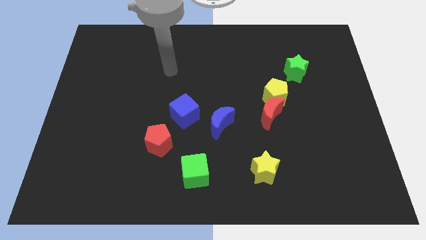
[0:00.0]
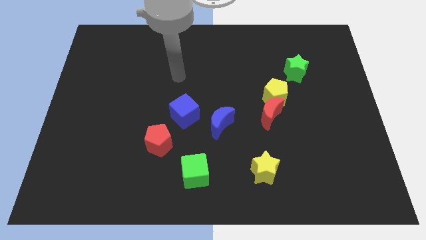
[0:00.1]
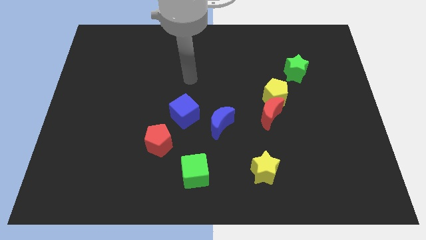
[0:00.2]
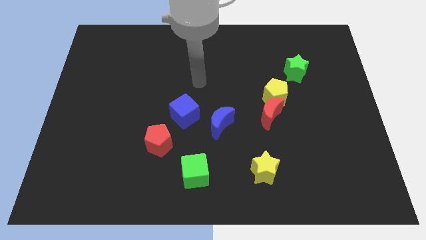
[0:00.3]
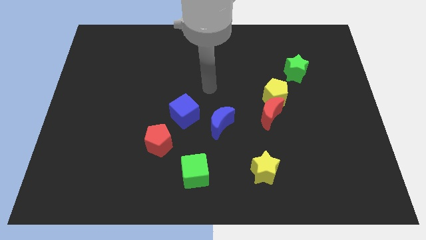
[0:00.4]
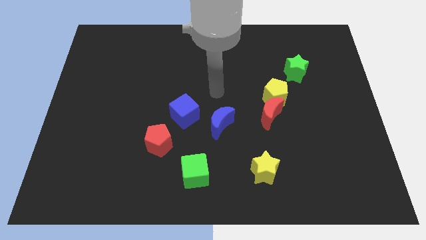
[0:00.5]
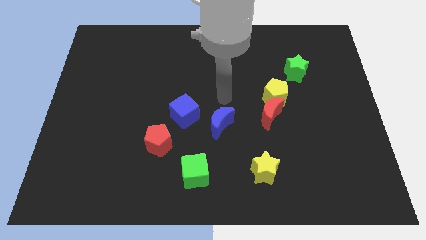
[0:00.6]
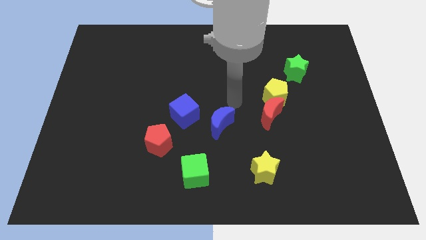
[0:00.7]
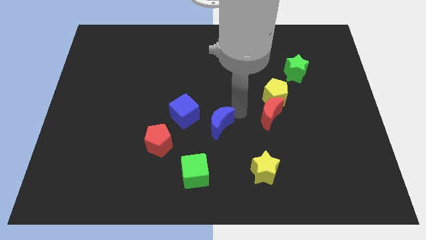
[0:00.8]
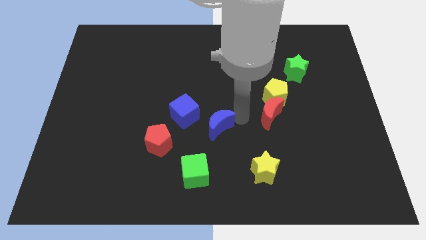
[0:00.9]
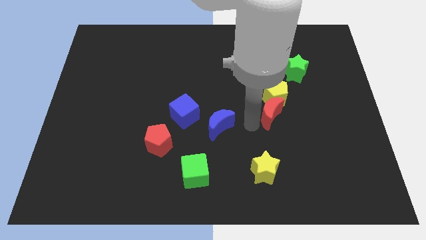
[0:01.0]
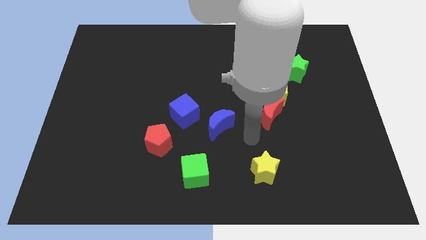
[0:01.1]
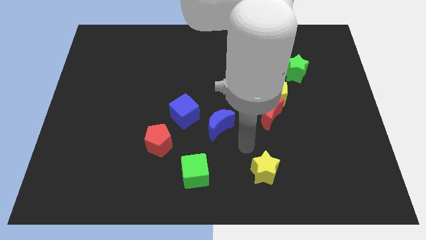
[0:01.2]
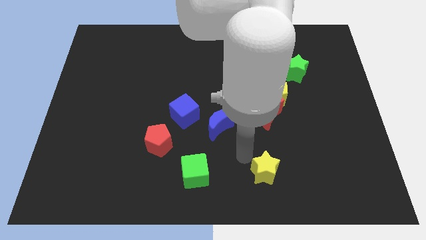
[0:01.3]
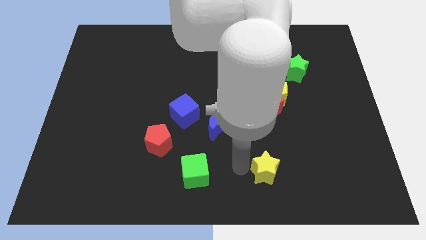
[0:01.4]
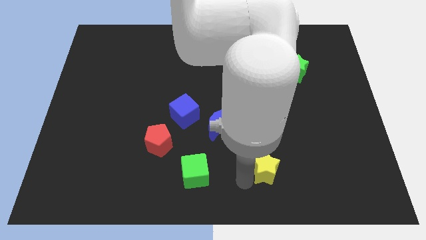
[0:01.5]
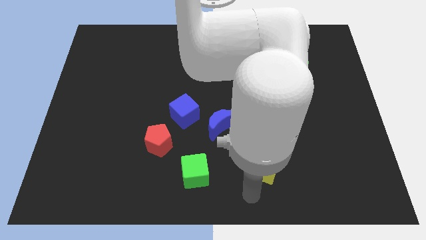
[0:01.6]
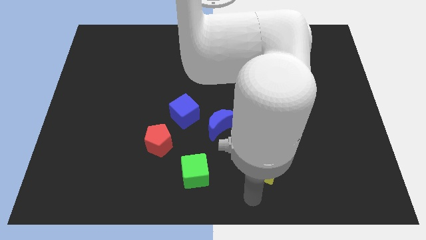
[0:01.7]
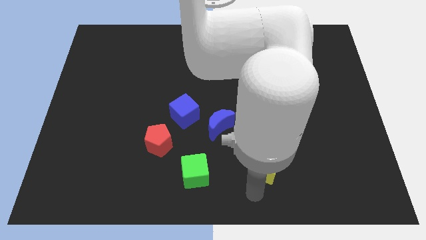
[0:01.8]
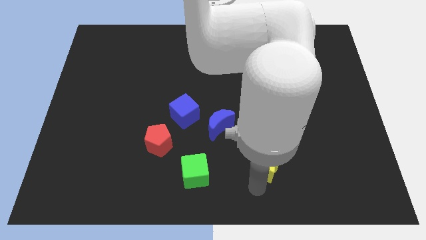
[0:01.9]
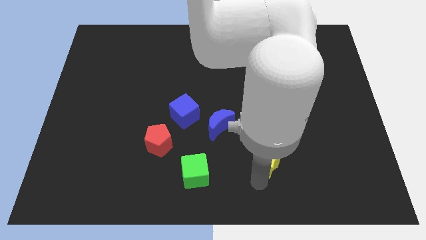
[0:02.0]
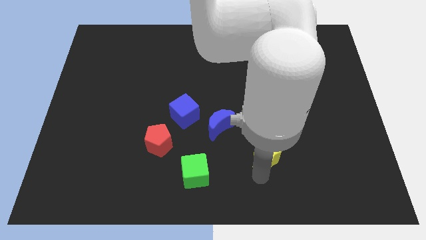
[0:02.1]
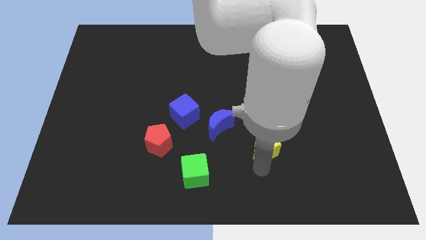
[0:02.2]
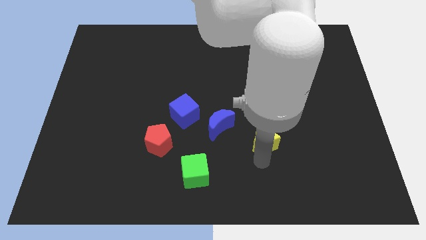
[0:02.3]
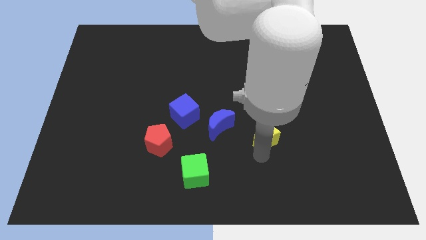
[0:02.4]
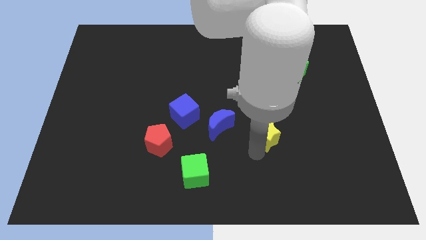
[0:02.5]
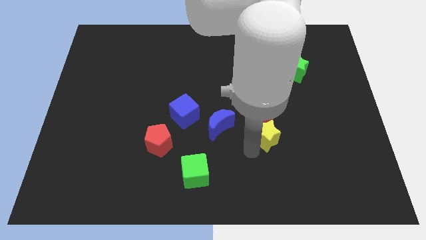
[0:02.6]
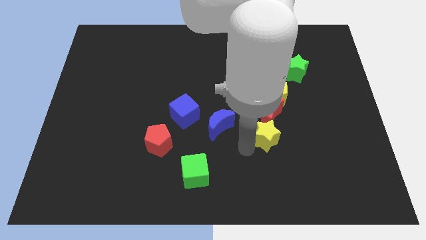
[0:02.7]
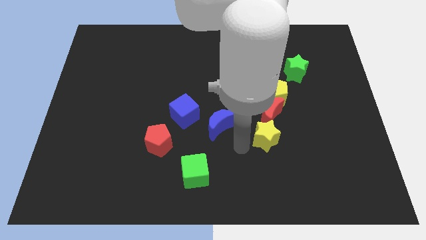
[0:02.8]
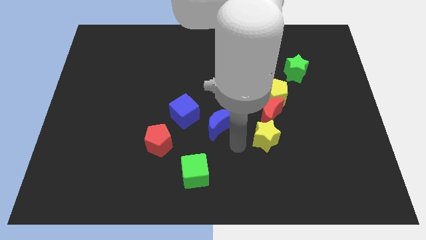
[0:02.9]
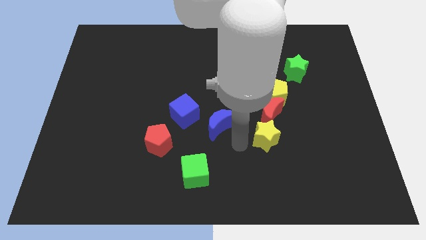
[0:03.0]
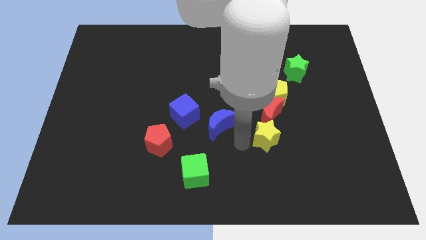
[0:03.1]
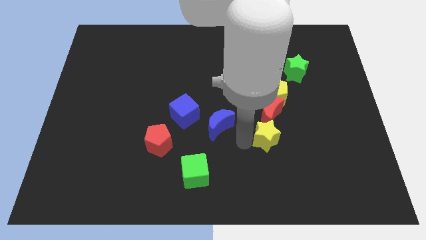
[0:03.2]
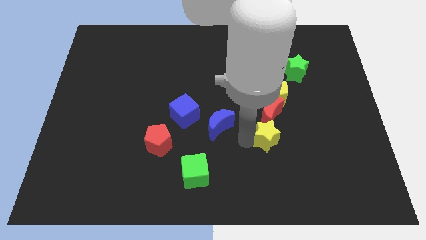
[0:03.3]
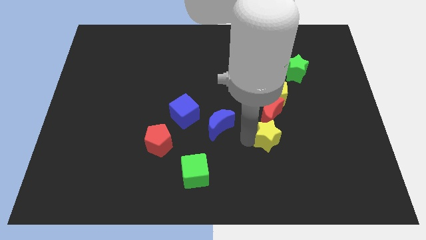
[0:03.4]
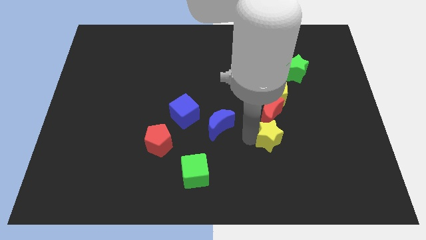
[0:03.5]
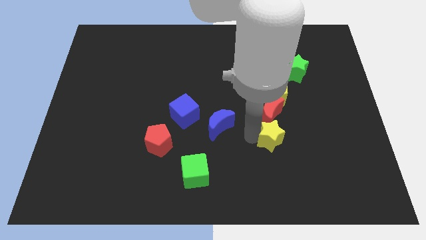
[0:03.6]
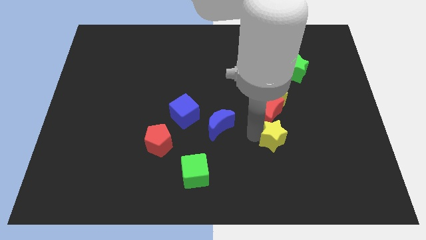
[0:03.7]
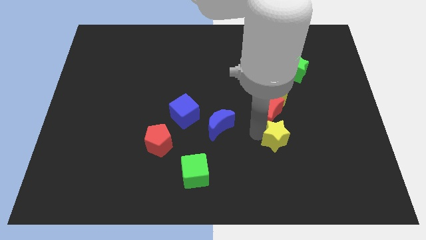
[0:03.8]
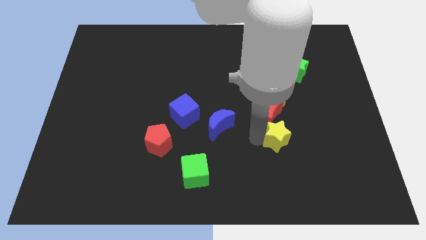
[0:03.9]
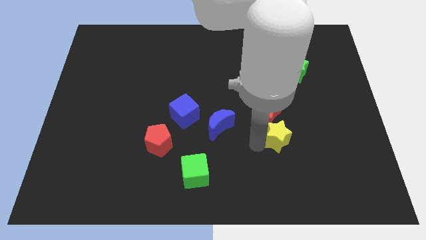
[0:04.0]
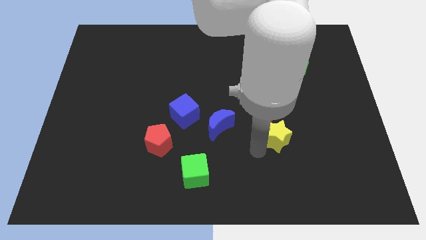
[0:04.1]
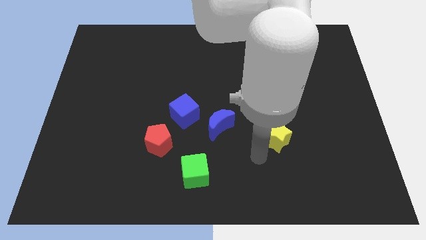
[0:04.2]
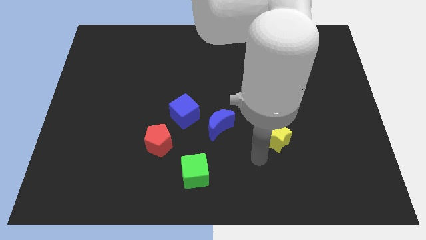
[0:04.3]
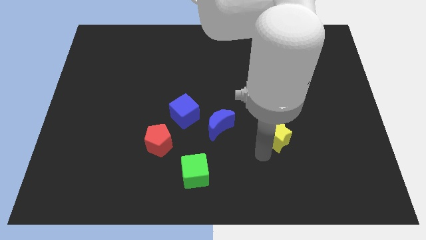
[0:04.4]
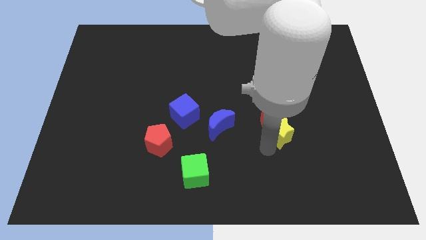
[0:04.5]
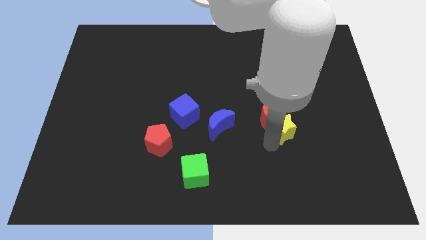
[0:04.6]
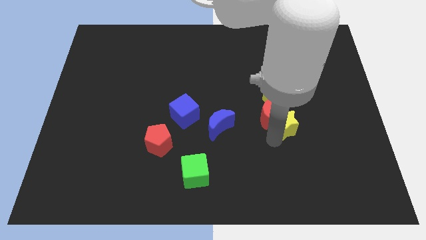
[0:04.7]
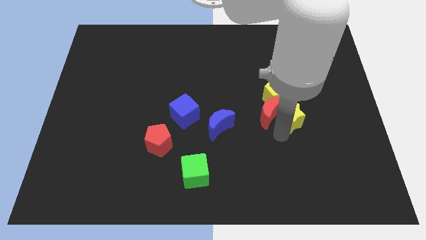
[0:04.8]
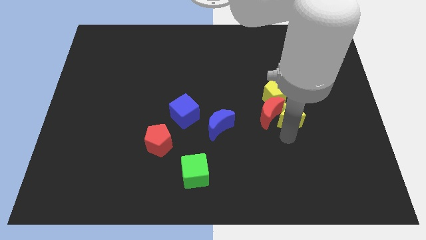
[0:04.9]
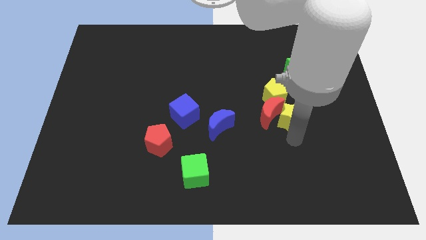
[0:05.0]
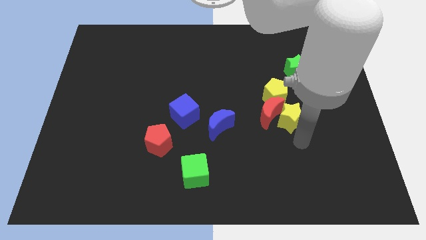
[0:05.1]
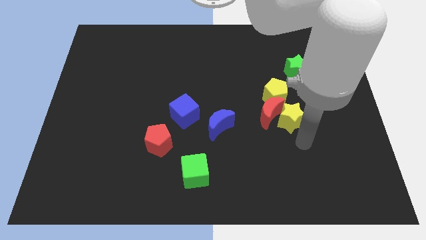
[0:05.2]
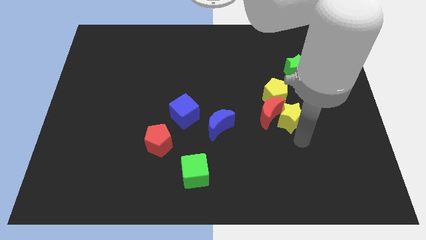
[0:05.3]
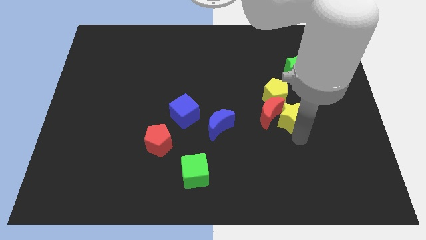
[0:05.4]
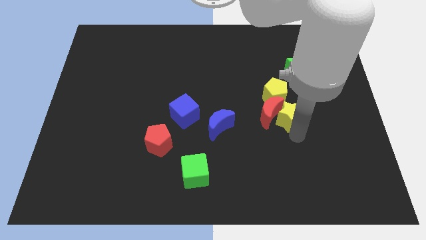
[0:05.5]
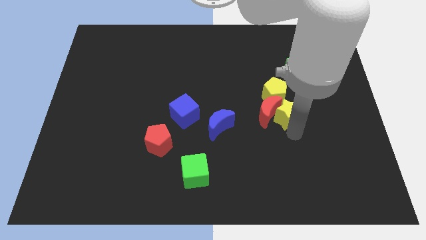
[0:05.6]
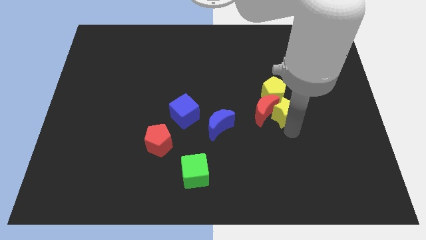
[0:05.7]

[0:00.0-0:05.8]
slide the yellow star close to the yellow pentagon

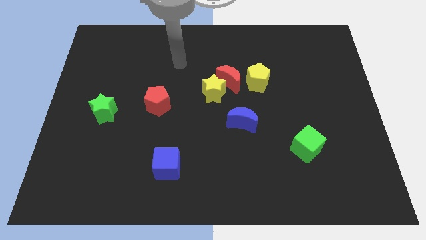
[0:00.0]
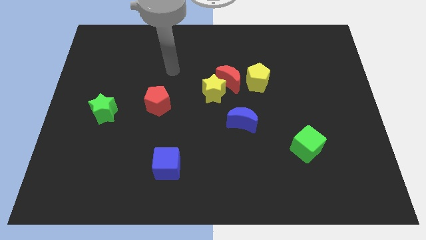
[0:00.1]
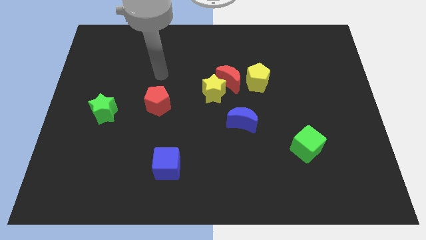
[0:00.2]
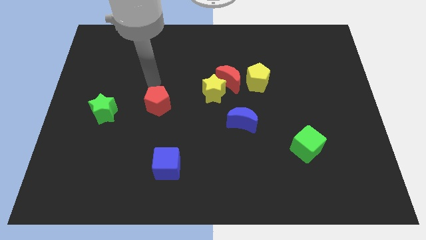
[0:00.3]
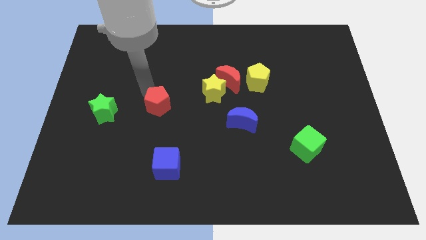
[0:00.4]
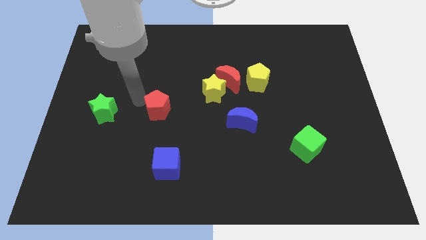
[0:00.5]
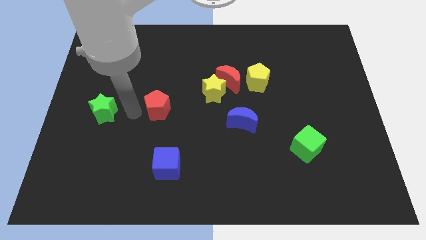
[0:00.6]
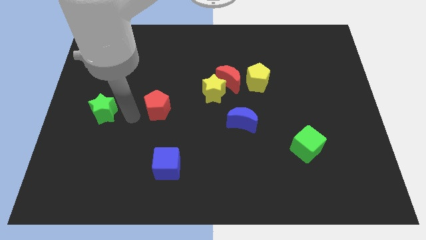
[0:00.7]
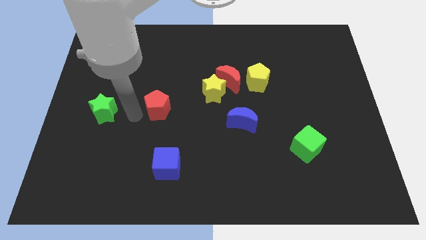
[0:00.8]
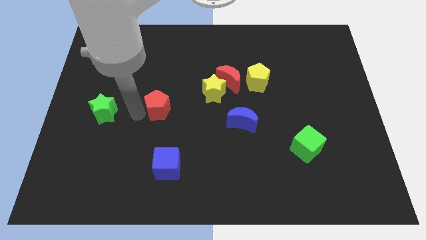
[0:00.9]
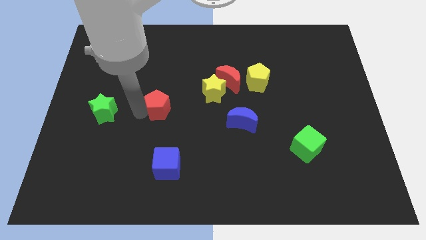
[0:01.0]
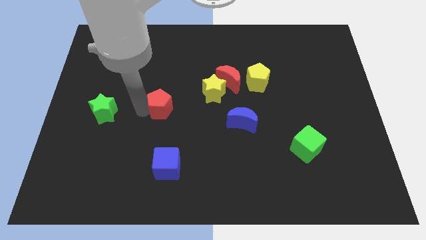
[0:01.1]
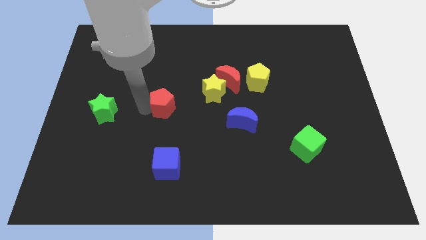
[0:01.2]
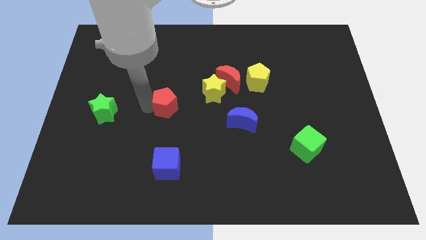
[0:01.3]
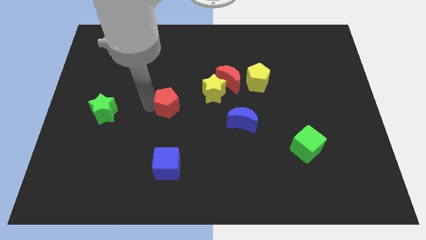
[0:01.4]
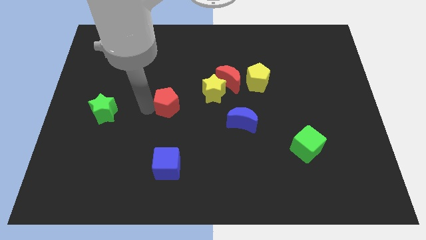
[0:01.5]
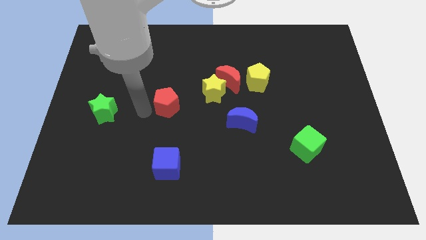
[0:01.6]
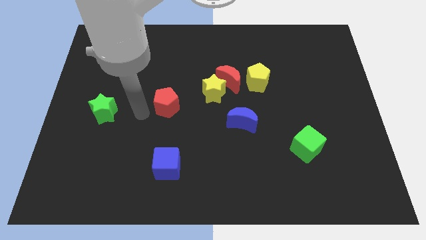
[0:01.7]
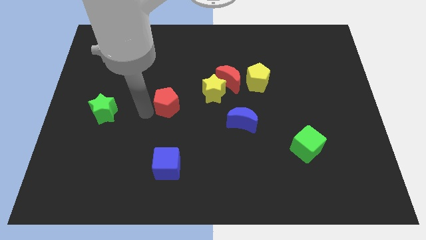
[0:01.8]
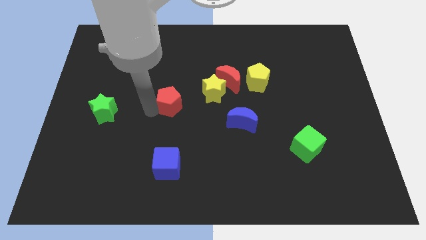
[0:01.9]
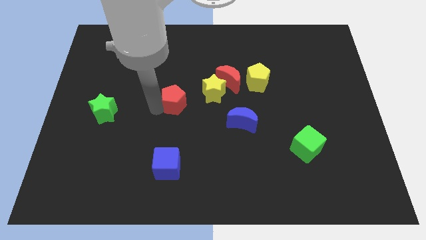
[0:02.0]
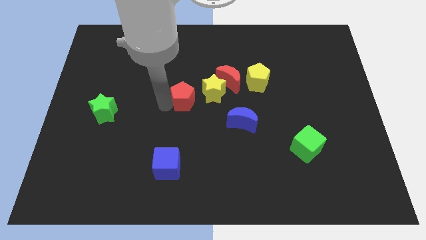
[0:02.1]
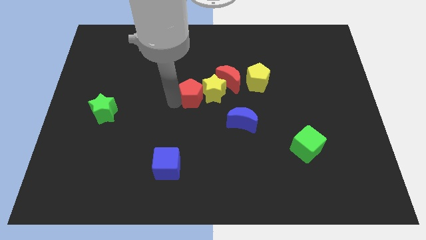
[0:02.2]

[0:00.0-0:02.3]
slide the red pentagon close to the yellow star
